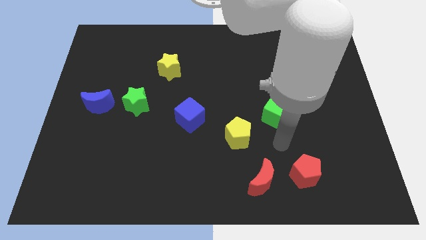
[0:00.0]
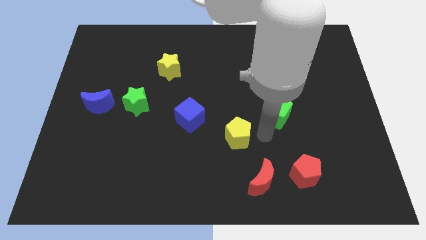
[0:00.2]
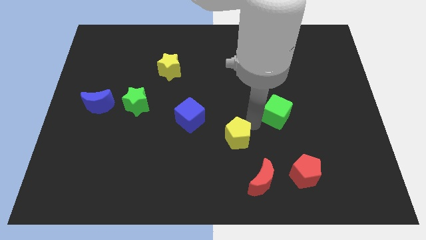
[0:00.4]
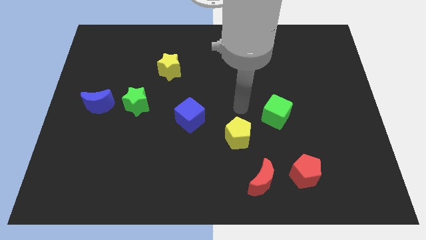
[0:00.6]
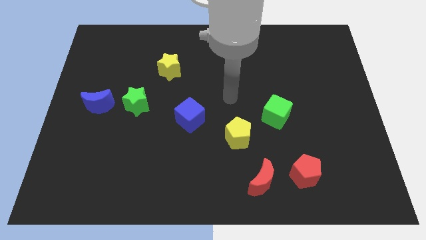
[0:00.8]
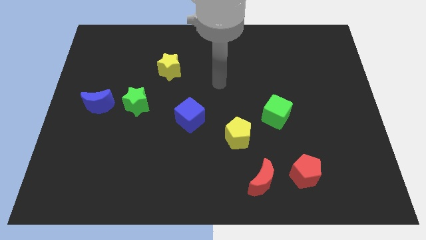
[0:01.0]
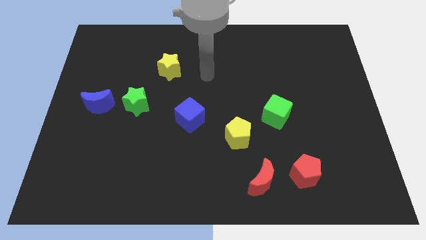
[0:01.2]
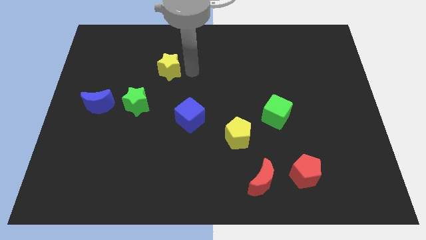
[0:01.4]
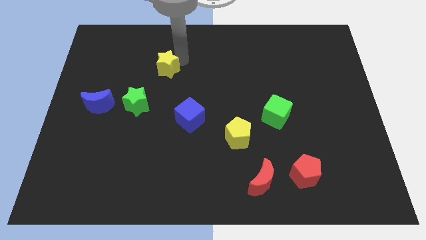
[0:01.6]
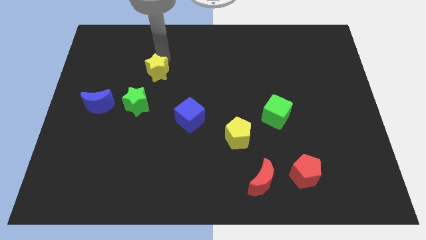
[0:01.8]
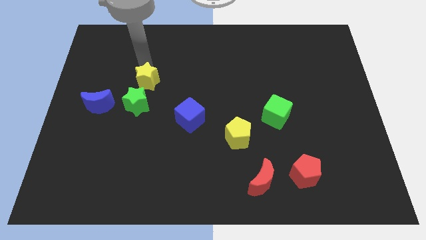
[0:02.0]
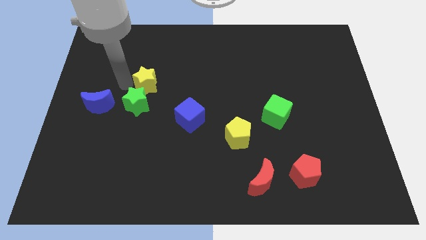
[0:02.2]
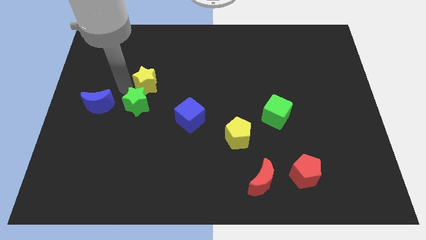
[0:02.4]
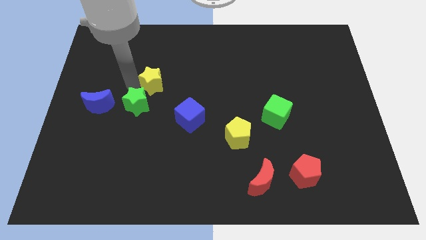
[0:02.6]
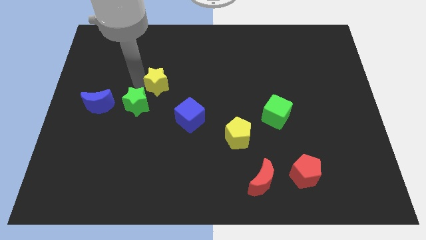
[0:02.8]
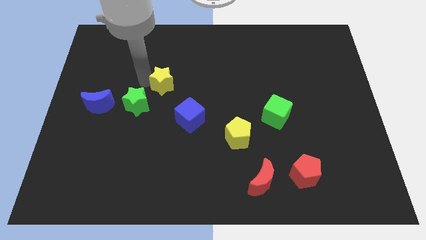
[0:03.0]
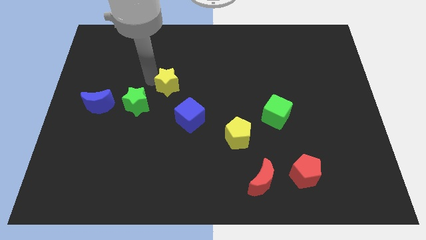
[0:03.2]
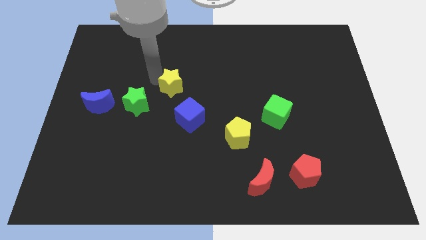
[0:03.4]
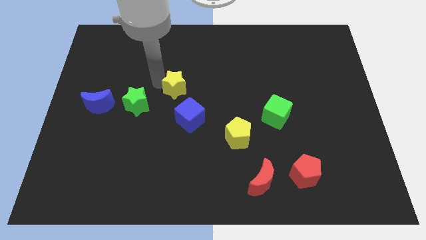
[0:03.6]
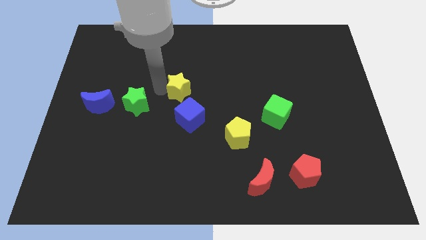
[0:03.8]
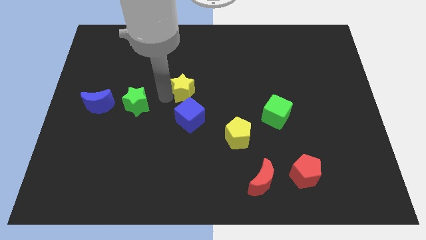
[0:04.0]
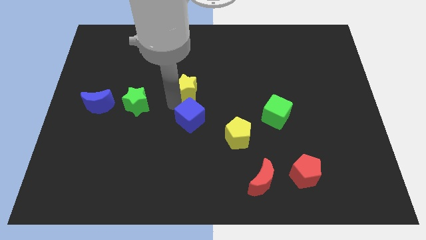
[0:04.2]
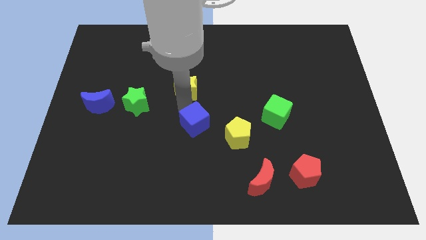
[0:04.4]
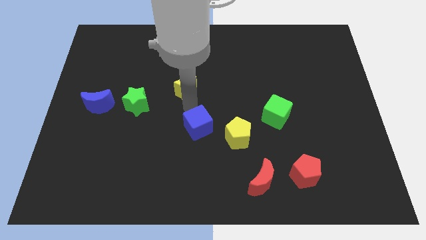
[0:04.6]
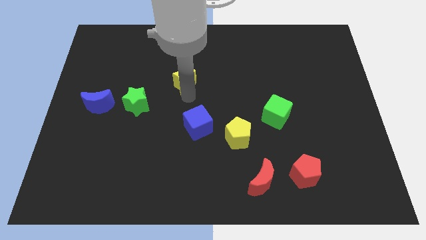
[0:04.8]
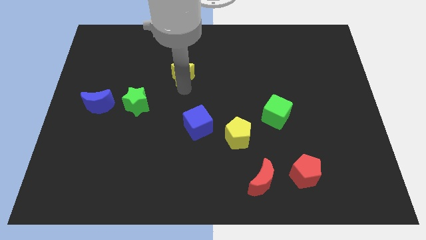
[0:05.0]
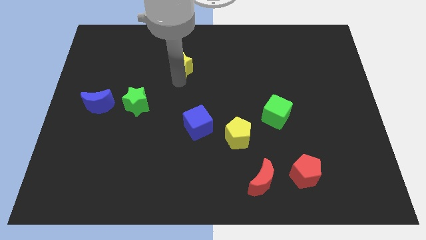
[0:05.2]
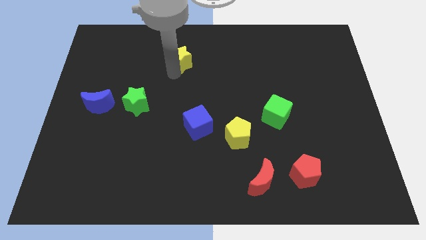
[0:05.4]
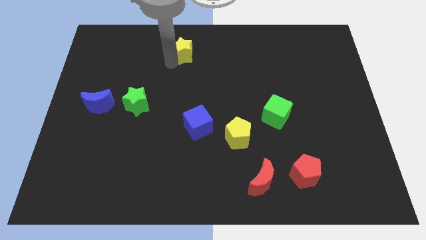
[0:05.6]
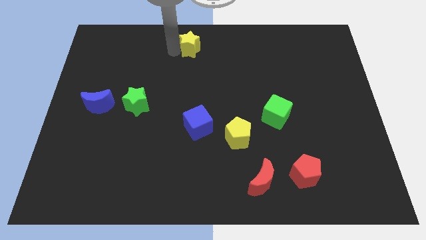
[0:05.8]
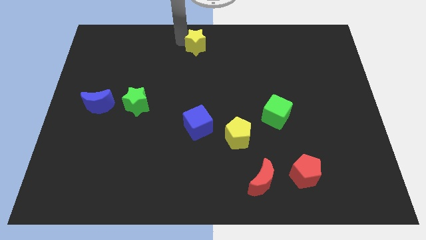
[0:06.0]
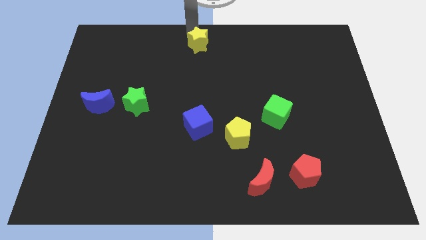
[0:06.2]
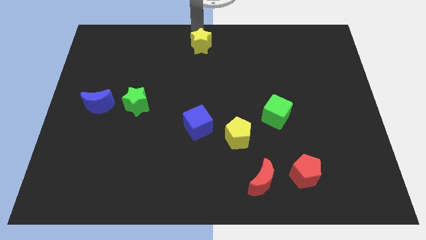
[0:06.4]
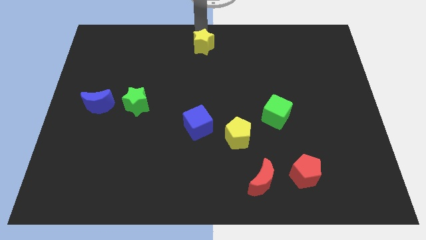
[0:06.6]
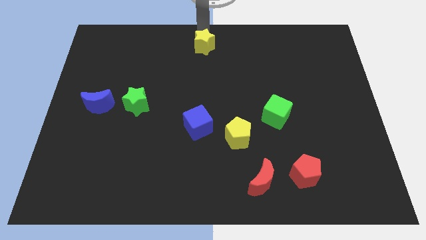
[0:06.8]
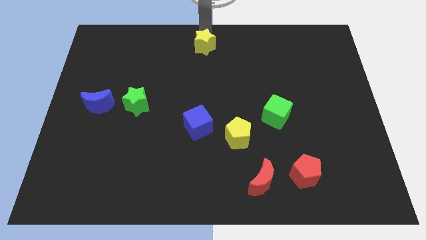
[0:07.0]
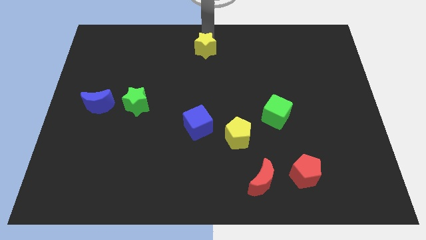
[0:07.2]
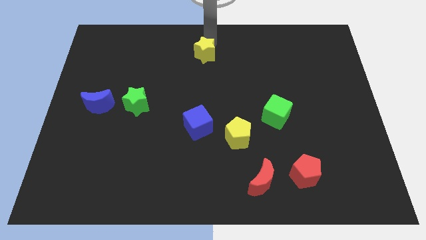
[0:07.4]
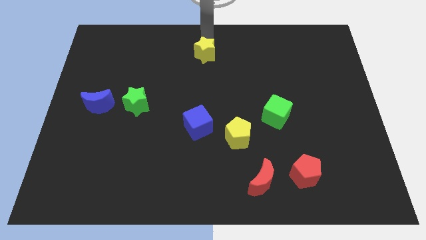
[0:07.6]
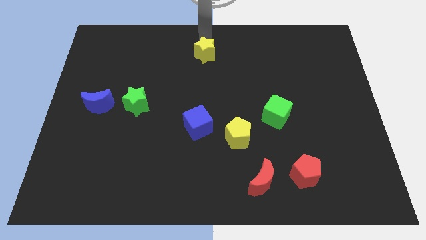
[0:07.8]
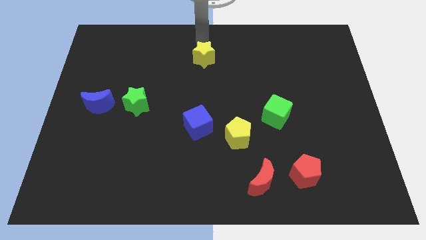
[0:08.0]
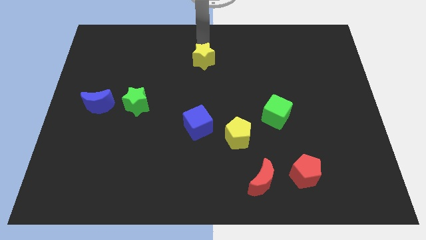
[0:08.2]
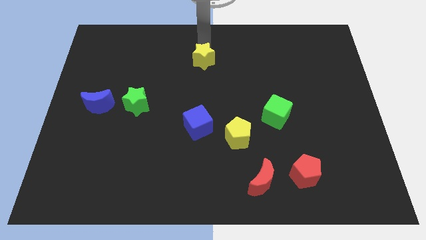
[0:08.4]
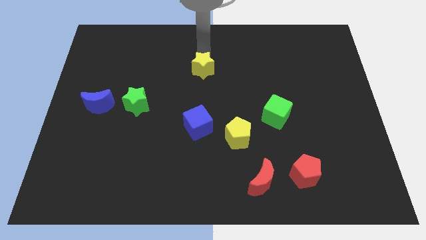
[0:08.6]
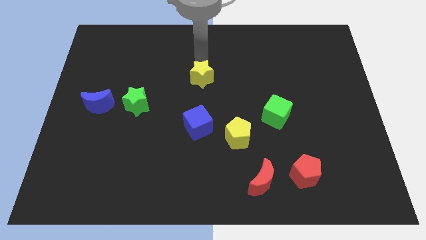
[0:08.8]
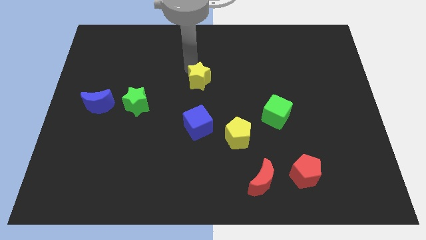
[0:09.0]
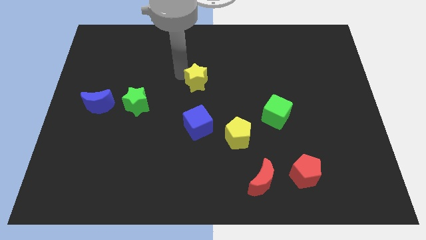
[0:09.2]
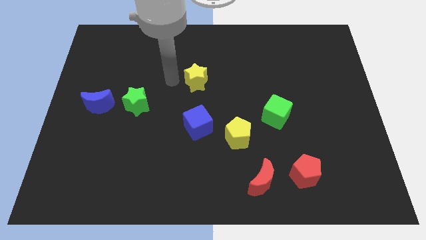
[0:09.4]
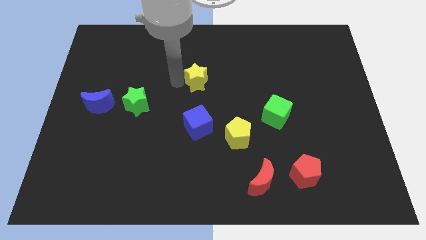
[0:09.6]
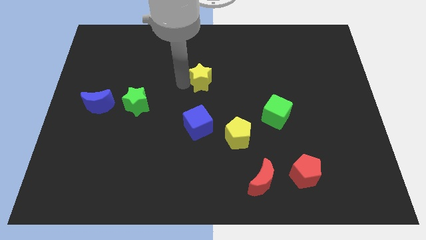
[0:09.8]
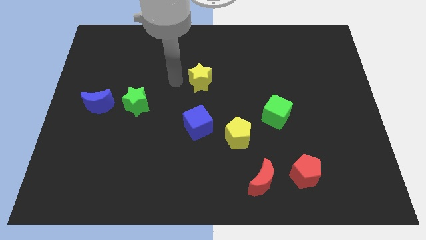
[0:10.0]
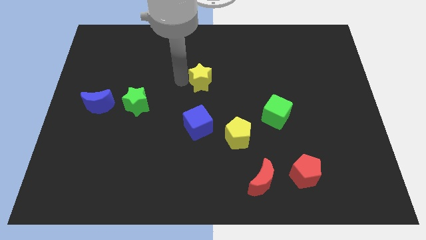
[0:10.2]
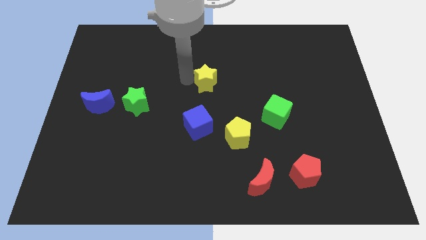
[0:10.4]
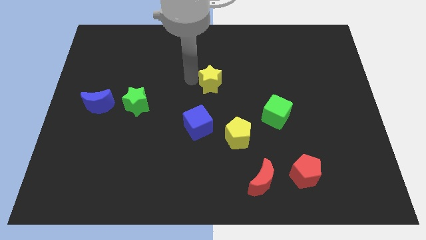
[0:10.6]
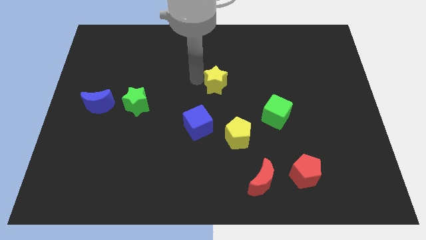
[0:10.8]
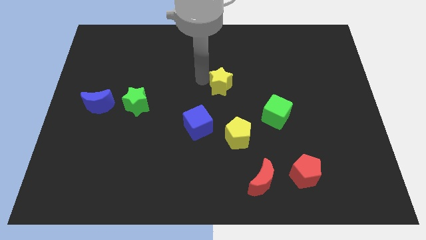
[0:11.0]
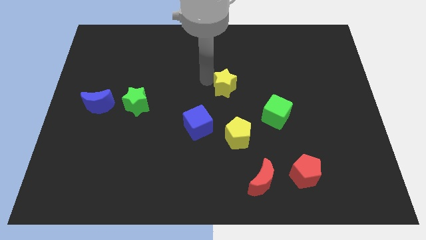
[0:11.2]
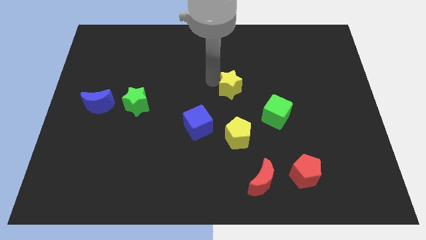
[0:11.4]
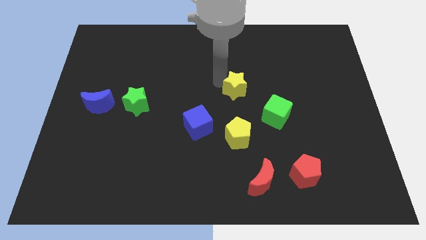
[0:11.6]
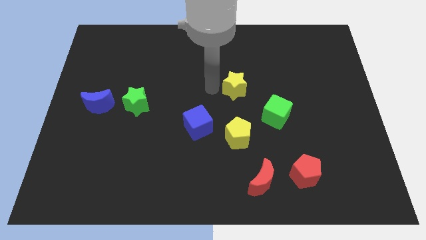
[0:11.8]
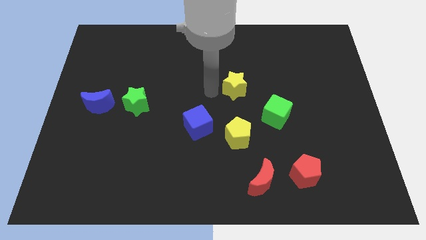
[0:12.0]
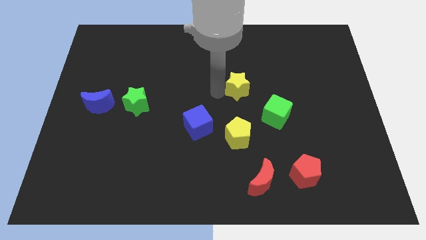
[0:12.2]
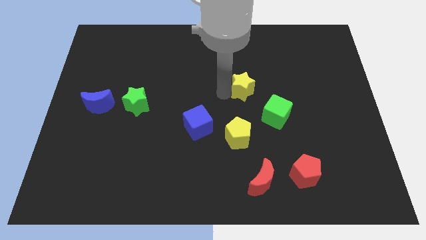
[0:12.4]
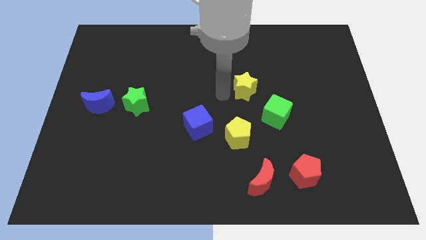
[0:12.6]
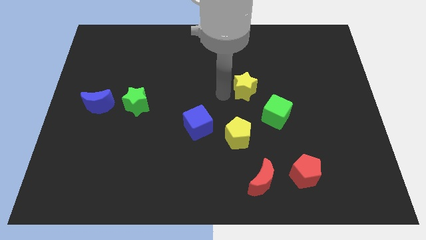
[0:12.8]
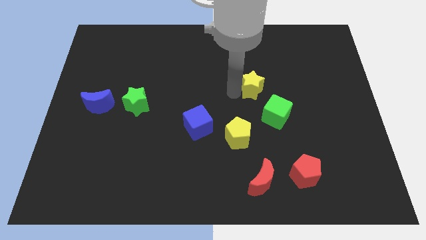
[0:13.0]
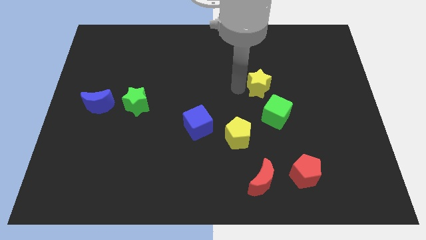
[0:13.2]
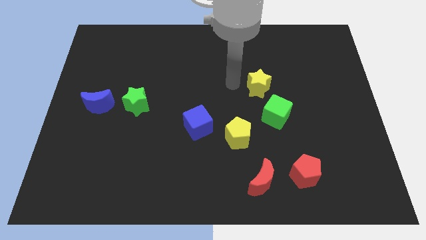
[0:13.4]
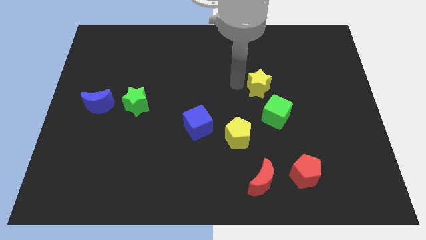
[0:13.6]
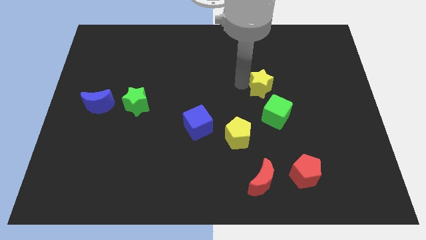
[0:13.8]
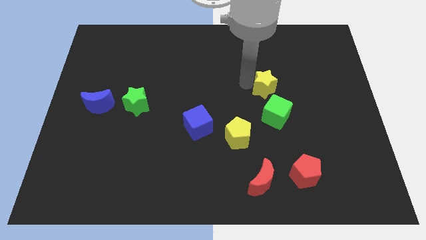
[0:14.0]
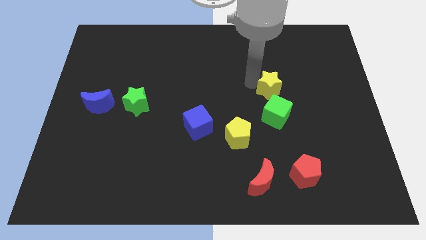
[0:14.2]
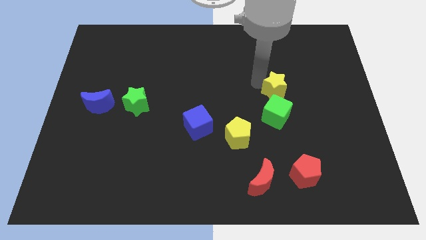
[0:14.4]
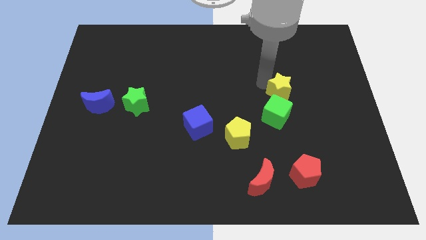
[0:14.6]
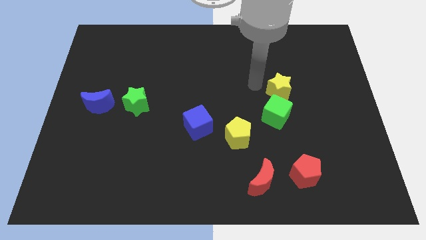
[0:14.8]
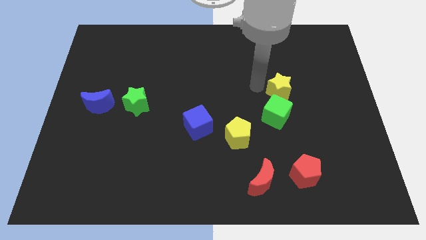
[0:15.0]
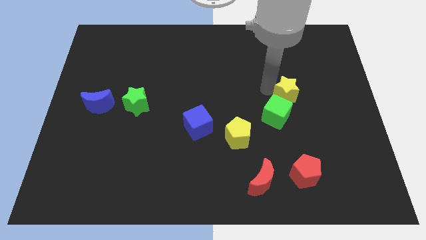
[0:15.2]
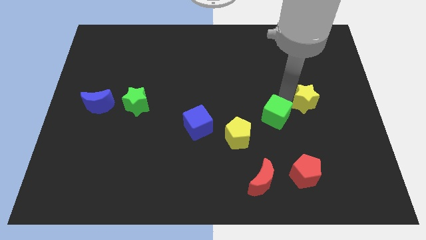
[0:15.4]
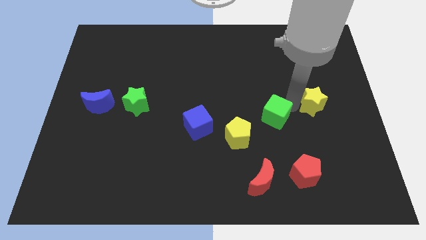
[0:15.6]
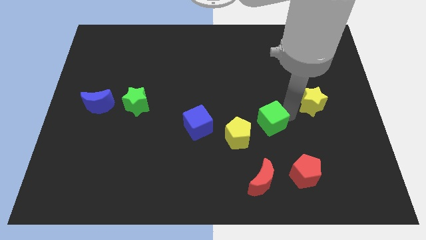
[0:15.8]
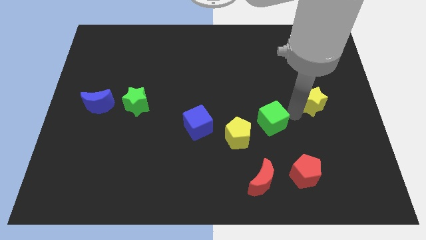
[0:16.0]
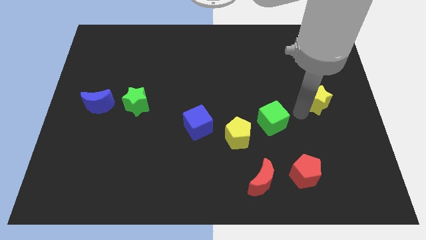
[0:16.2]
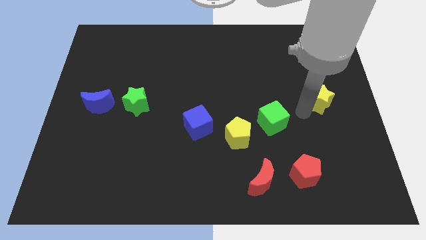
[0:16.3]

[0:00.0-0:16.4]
slide the yellow star to the center right
